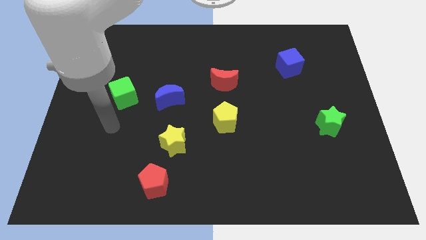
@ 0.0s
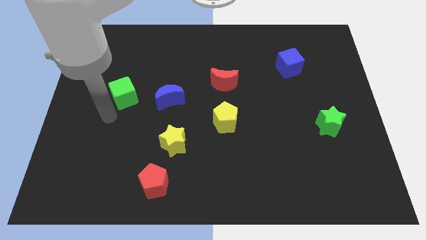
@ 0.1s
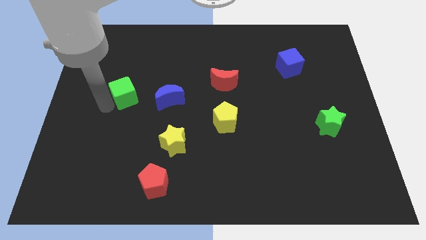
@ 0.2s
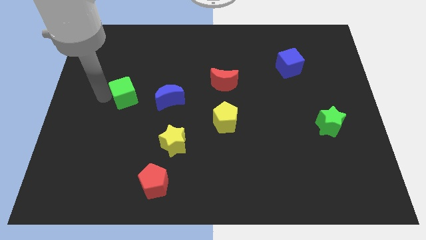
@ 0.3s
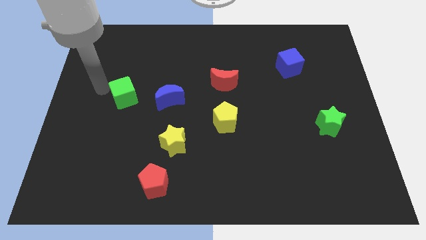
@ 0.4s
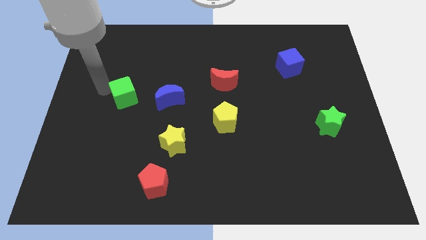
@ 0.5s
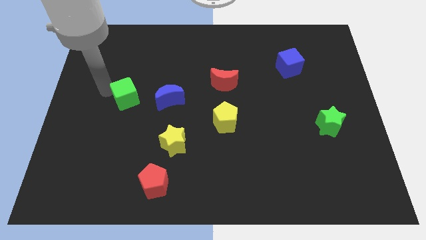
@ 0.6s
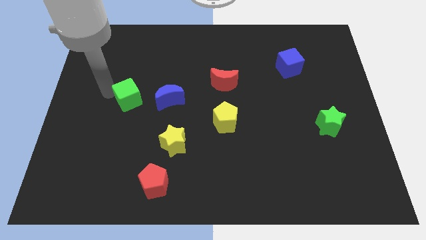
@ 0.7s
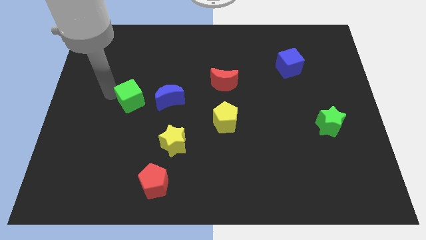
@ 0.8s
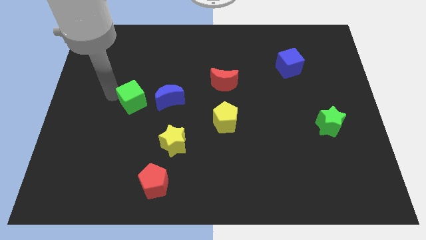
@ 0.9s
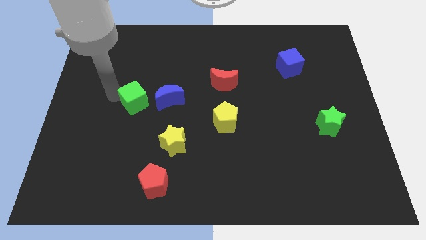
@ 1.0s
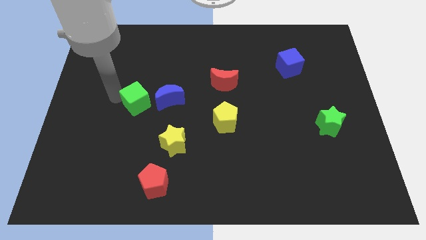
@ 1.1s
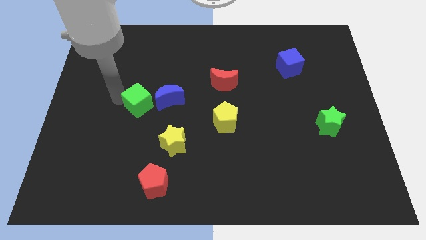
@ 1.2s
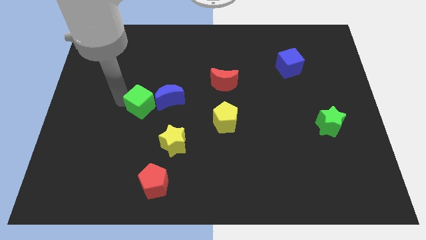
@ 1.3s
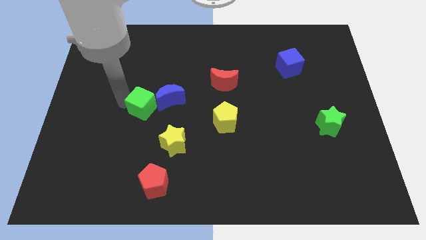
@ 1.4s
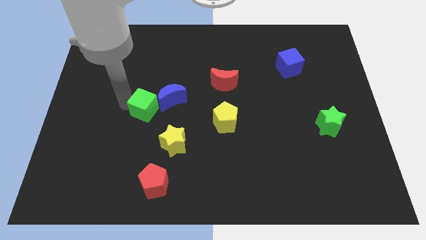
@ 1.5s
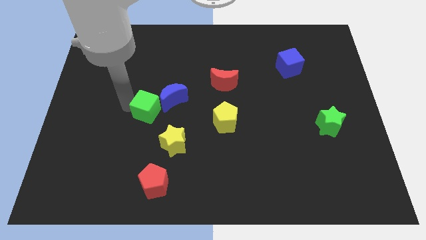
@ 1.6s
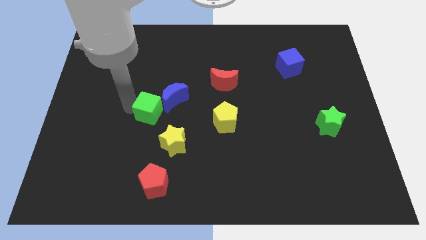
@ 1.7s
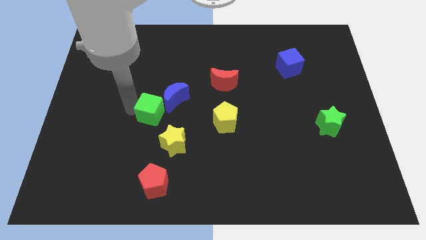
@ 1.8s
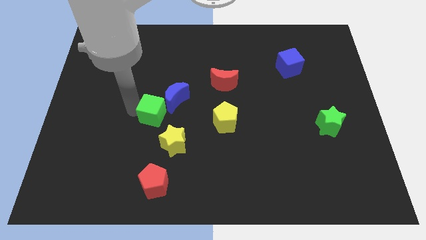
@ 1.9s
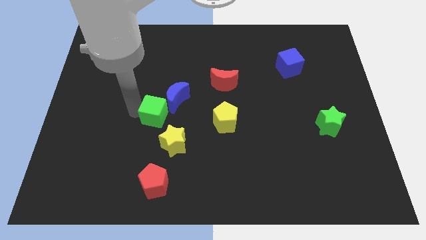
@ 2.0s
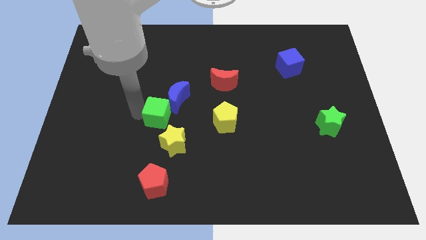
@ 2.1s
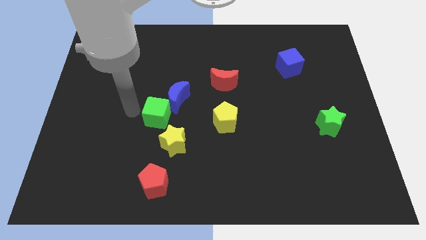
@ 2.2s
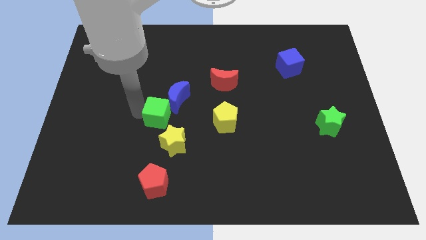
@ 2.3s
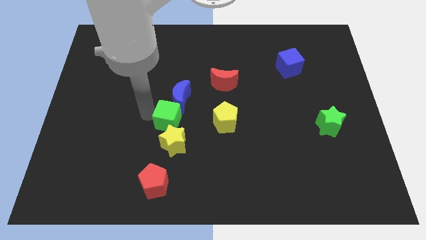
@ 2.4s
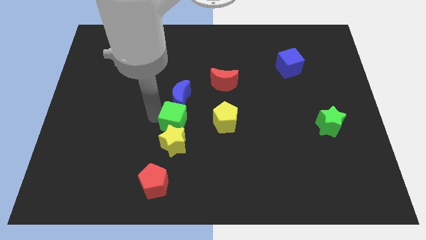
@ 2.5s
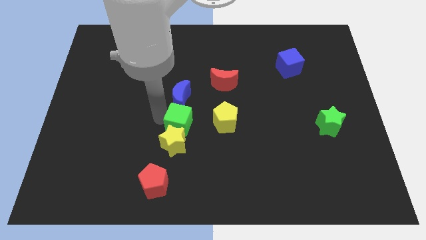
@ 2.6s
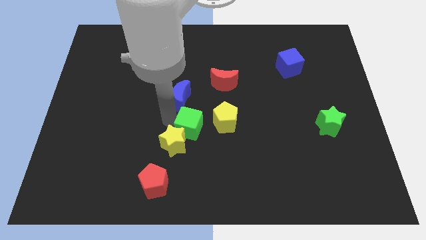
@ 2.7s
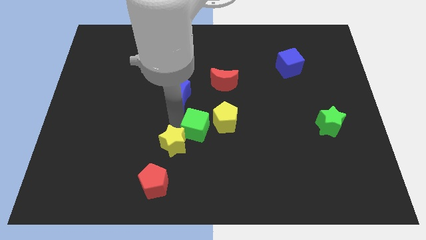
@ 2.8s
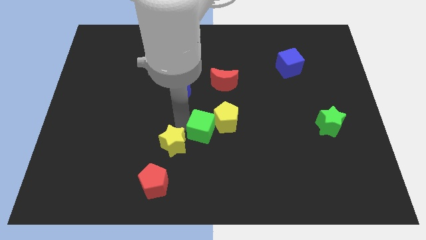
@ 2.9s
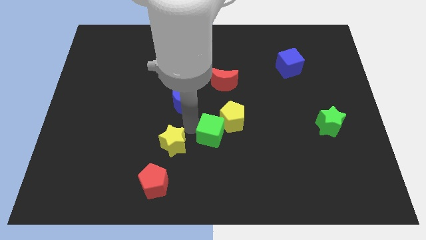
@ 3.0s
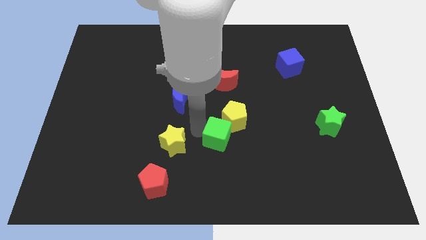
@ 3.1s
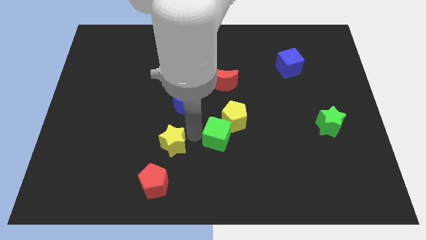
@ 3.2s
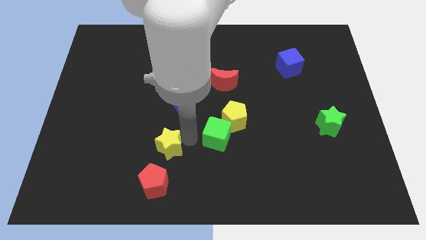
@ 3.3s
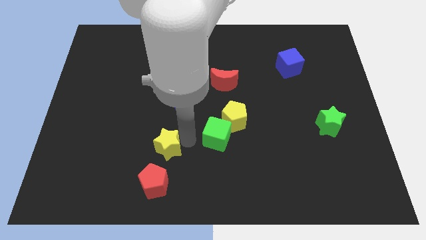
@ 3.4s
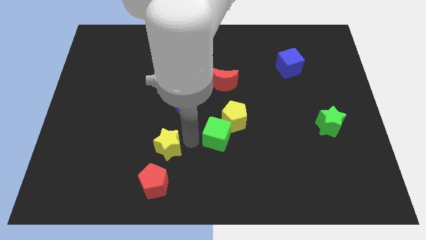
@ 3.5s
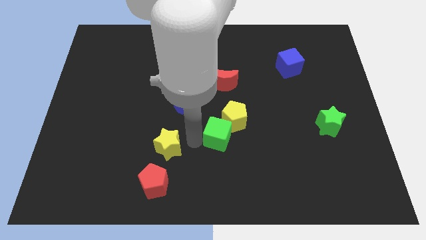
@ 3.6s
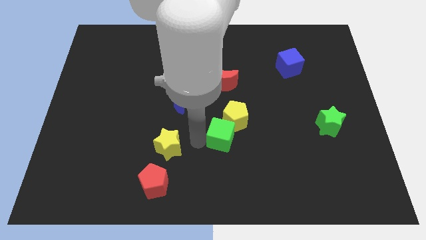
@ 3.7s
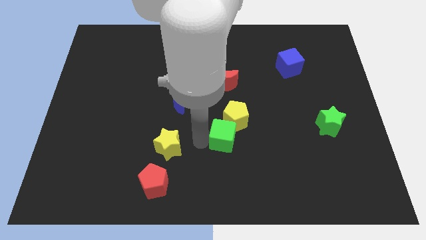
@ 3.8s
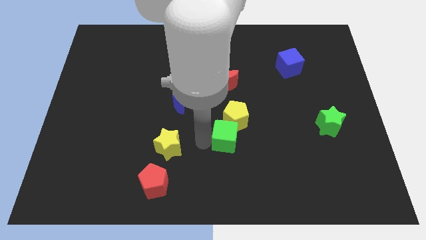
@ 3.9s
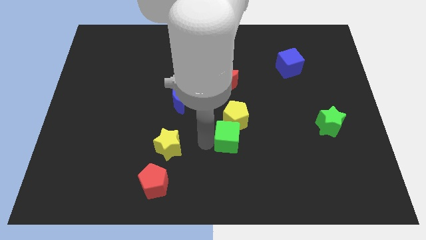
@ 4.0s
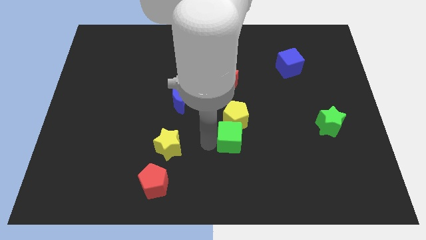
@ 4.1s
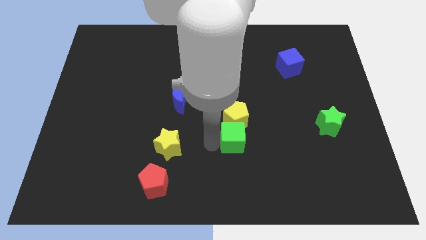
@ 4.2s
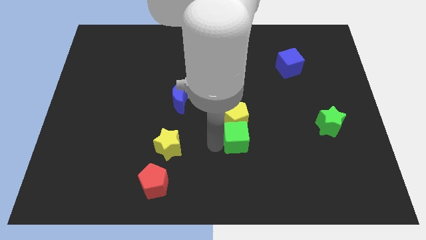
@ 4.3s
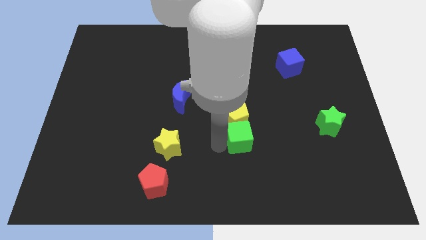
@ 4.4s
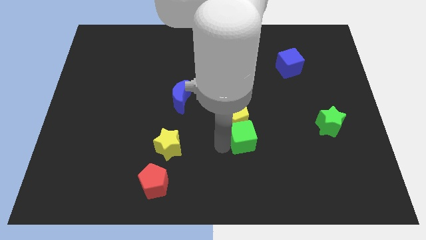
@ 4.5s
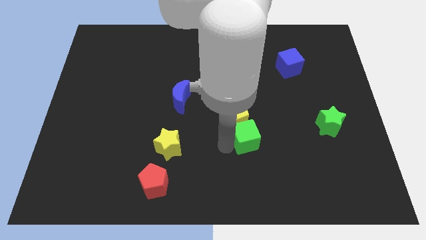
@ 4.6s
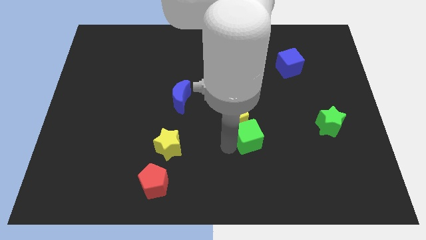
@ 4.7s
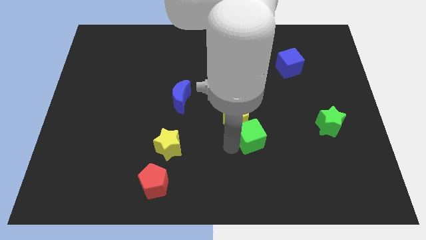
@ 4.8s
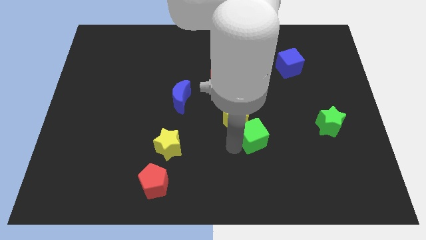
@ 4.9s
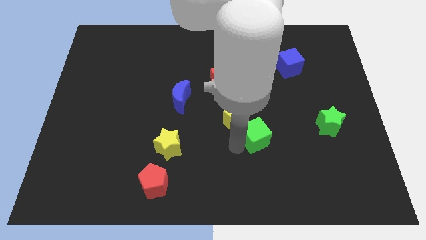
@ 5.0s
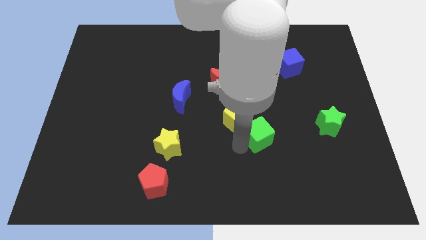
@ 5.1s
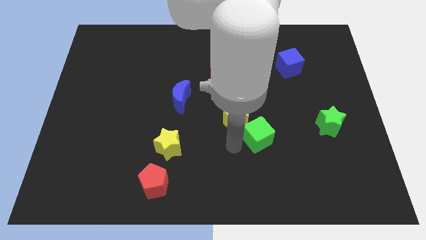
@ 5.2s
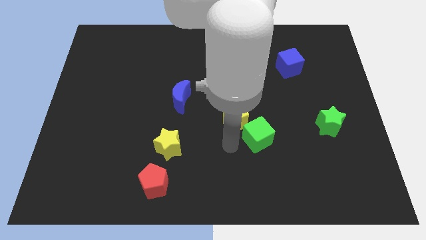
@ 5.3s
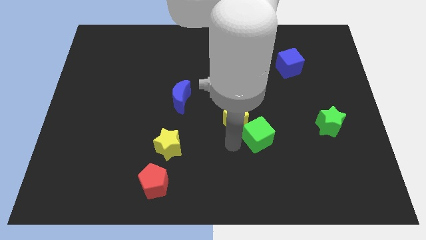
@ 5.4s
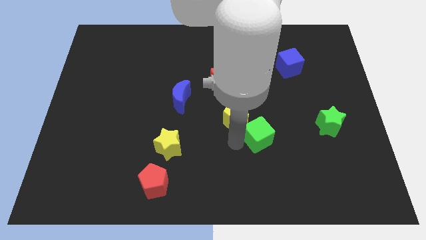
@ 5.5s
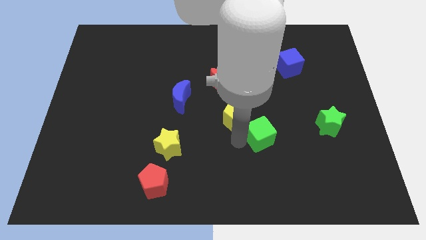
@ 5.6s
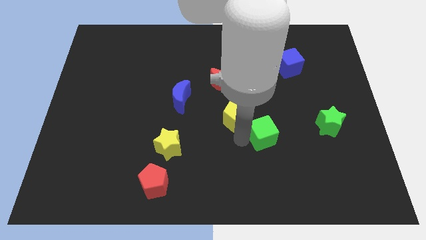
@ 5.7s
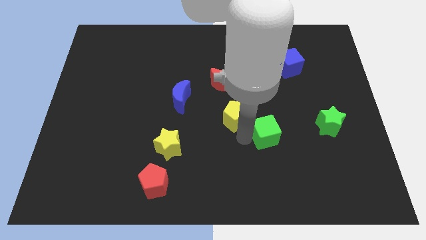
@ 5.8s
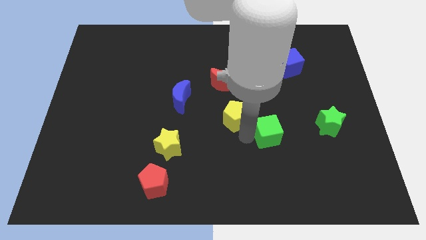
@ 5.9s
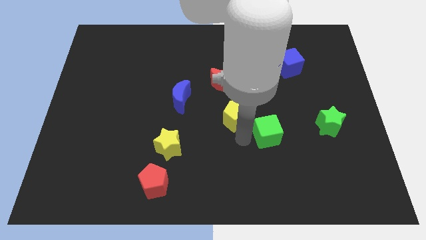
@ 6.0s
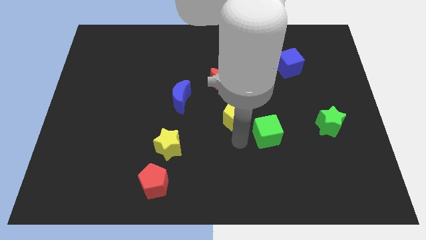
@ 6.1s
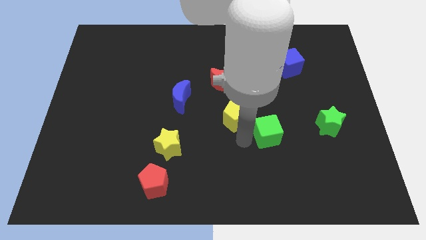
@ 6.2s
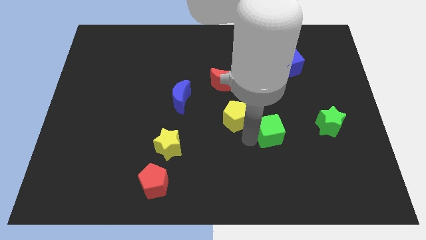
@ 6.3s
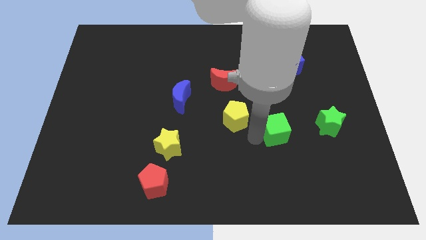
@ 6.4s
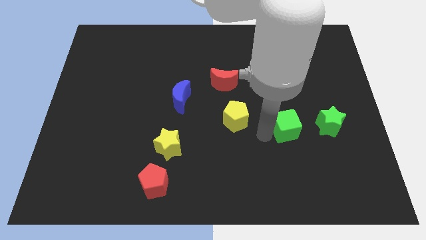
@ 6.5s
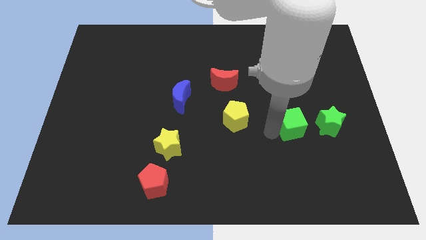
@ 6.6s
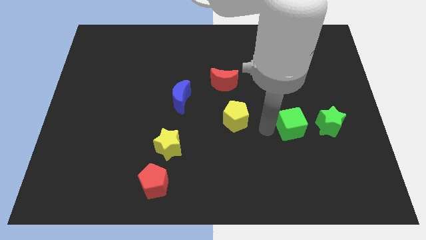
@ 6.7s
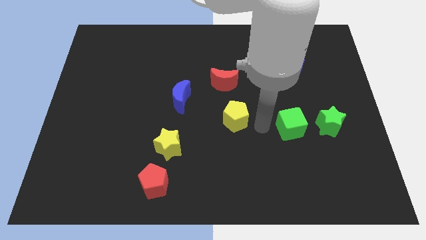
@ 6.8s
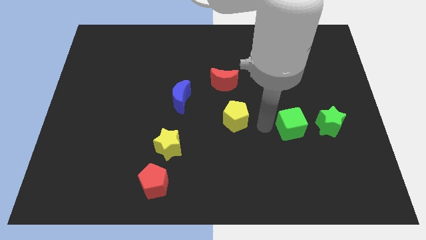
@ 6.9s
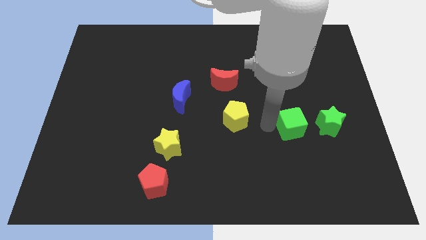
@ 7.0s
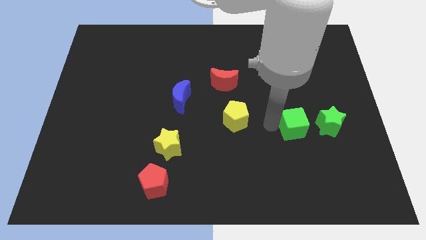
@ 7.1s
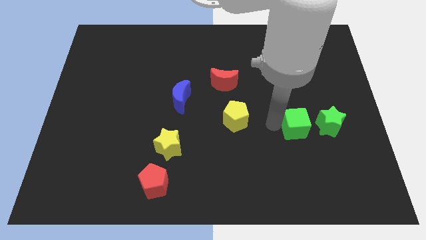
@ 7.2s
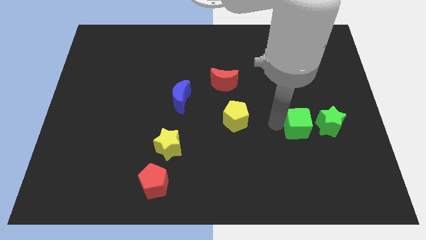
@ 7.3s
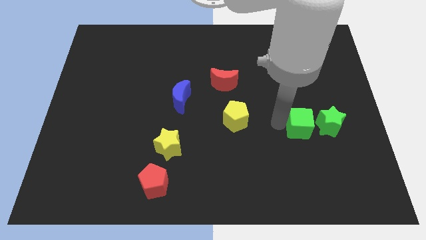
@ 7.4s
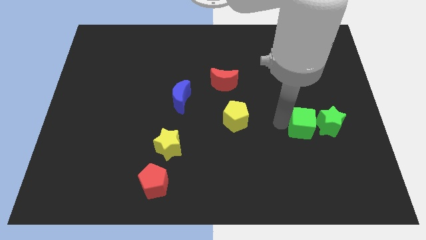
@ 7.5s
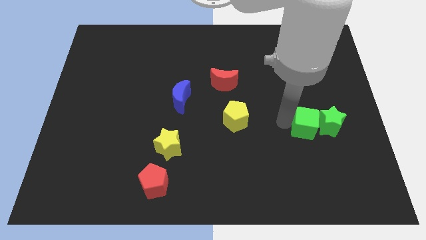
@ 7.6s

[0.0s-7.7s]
slide the green cube next to the green star
